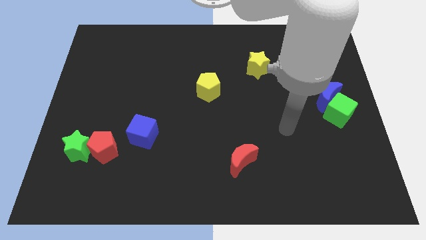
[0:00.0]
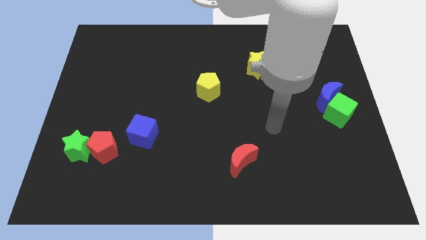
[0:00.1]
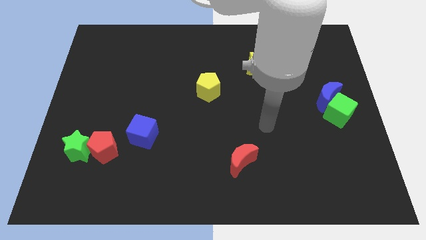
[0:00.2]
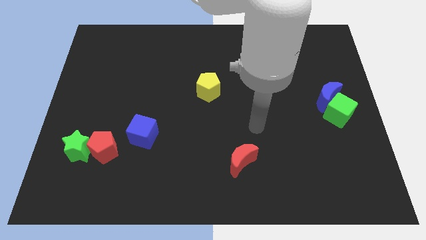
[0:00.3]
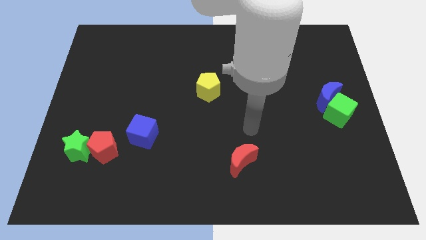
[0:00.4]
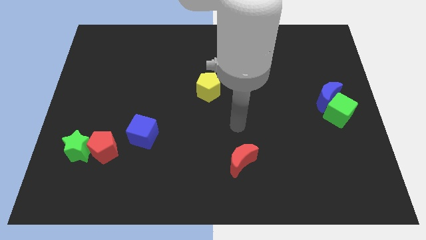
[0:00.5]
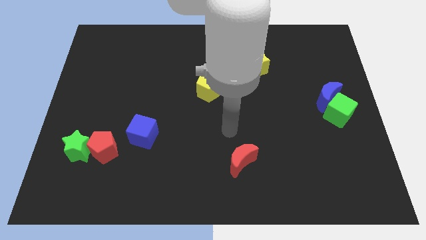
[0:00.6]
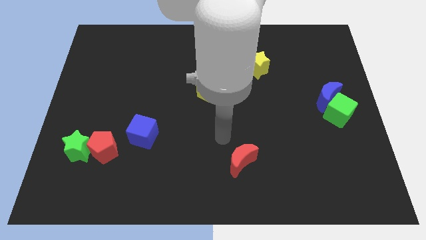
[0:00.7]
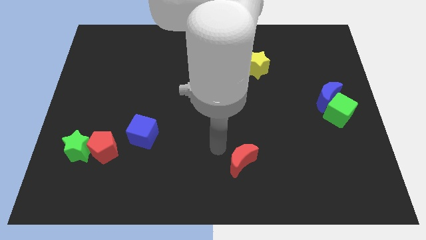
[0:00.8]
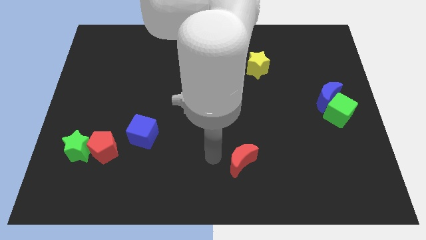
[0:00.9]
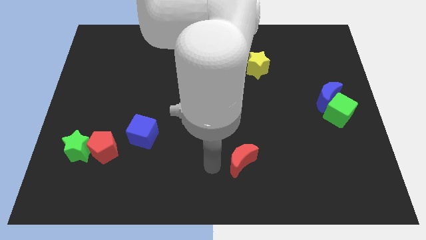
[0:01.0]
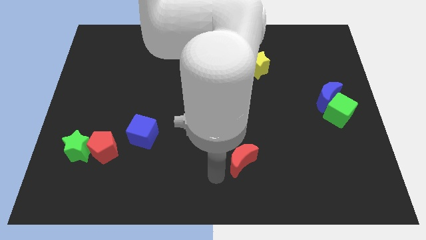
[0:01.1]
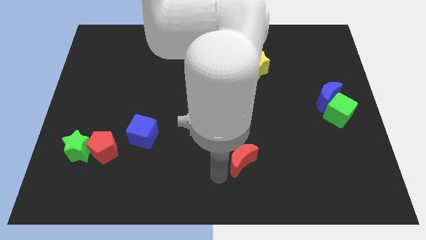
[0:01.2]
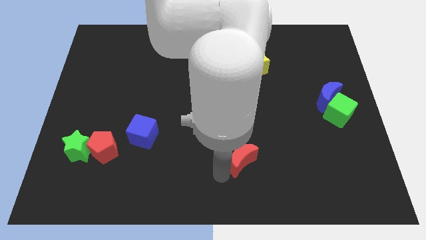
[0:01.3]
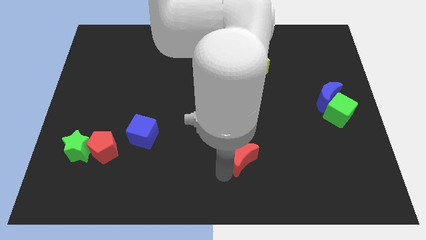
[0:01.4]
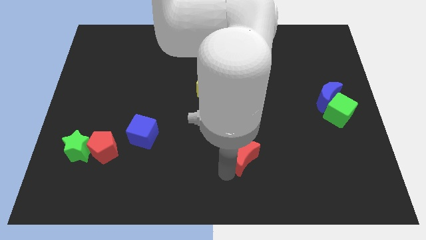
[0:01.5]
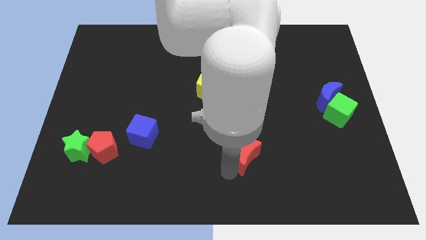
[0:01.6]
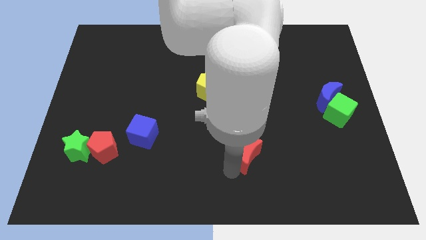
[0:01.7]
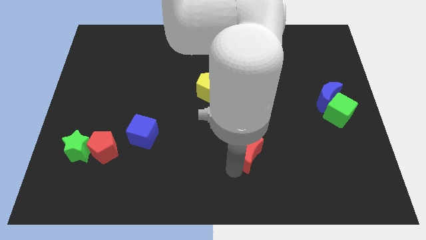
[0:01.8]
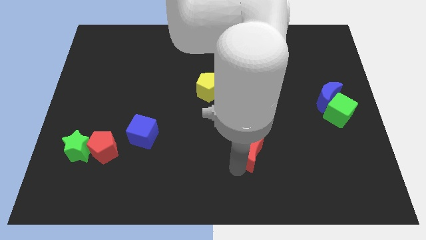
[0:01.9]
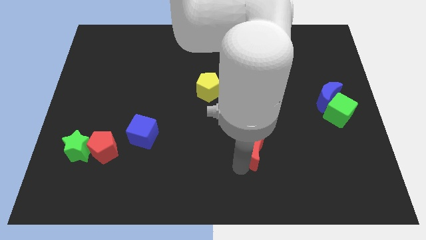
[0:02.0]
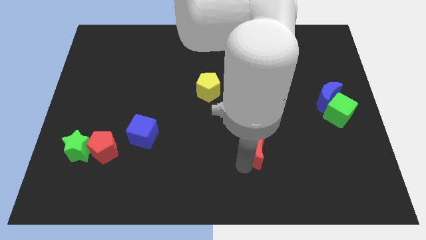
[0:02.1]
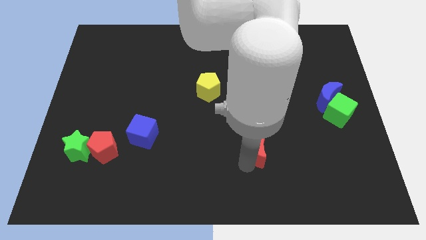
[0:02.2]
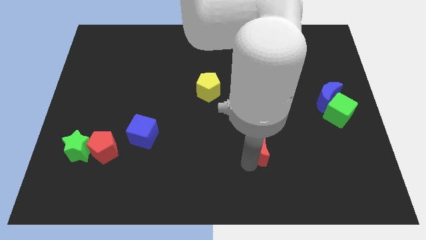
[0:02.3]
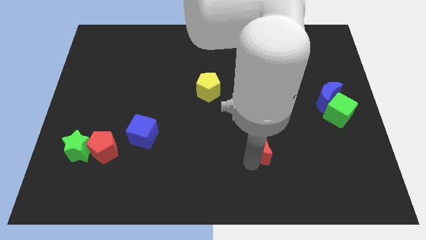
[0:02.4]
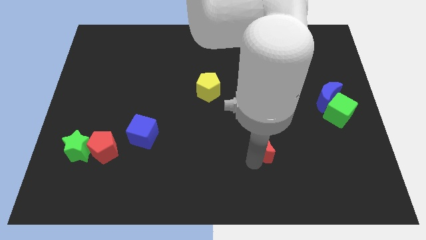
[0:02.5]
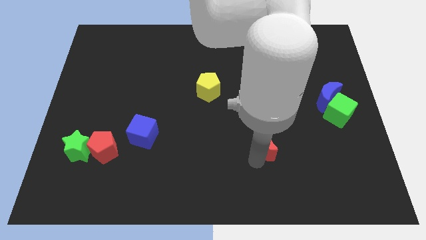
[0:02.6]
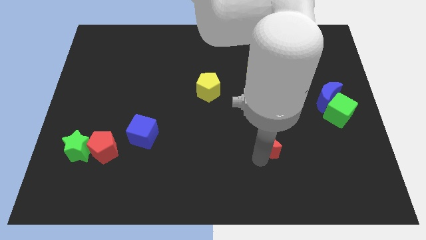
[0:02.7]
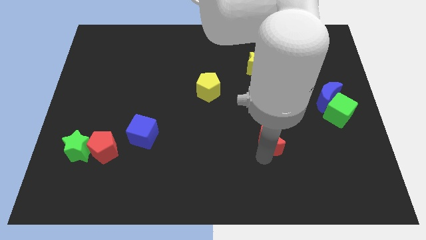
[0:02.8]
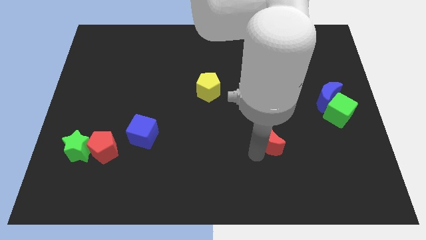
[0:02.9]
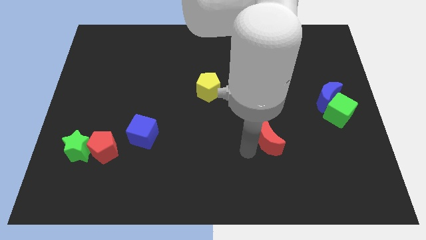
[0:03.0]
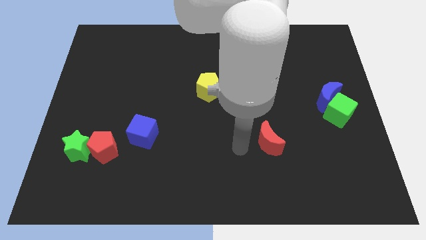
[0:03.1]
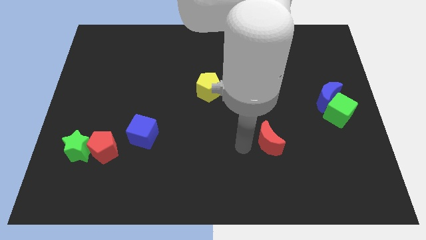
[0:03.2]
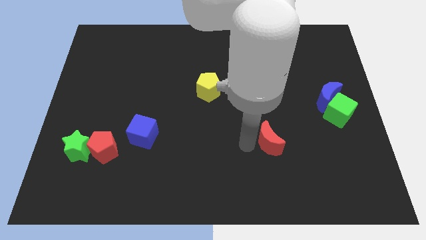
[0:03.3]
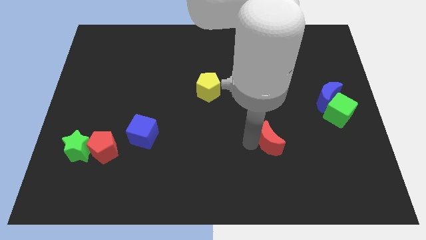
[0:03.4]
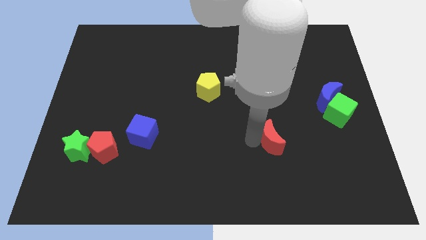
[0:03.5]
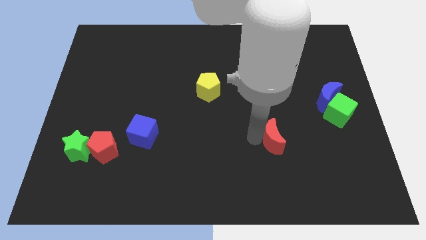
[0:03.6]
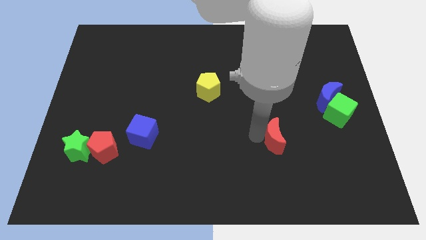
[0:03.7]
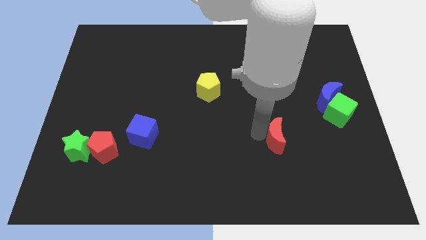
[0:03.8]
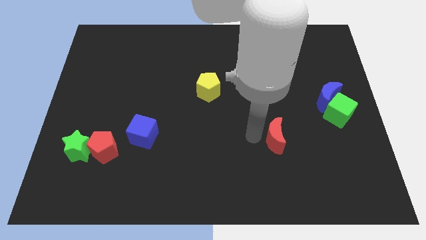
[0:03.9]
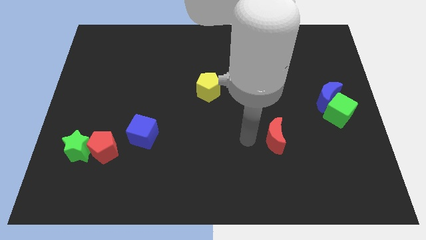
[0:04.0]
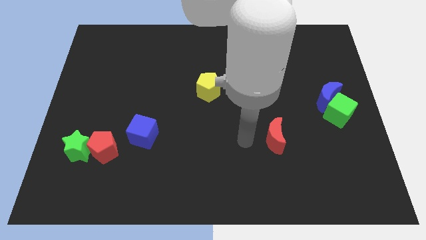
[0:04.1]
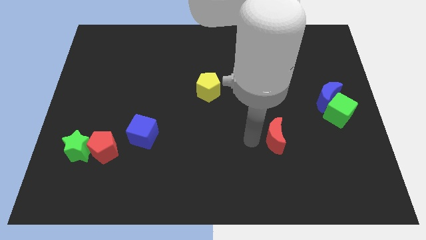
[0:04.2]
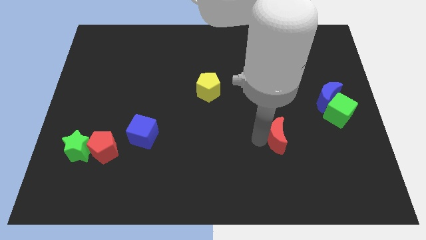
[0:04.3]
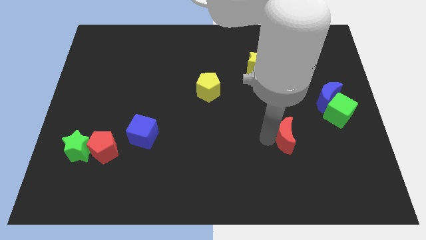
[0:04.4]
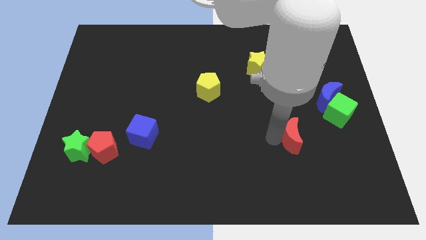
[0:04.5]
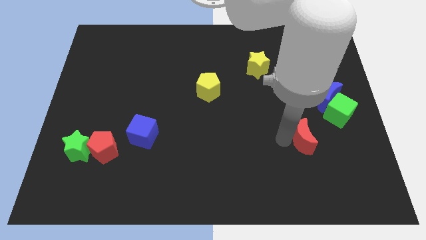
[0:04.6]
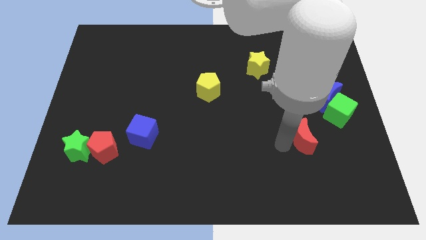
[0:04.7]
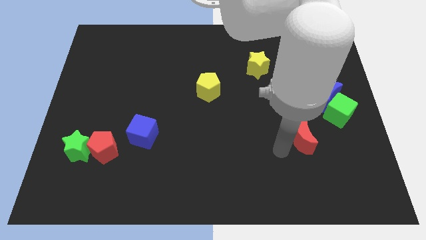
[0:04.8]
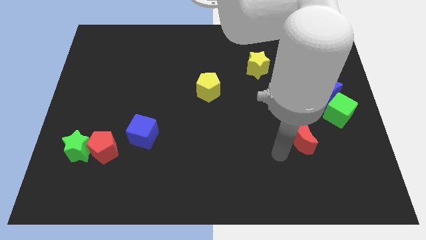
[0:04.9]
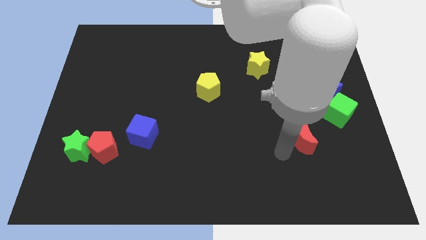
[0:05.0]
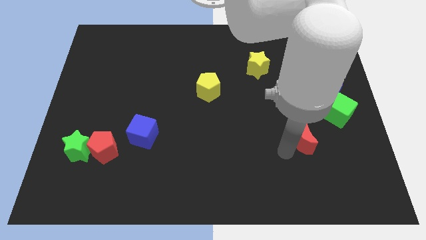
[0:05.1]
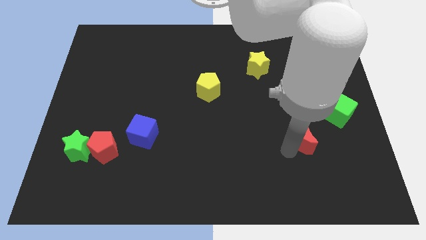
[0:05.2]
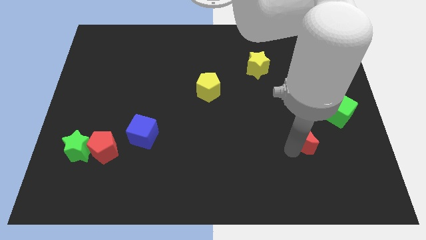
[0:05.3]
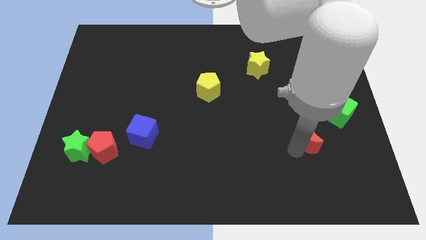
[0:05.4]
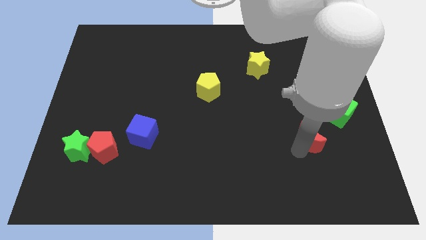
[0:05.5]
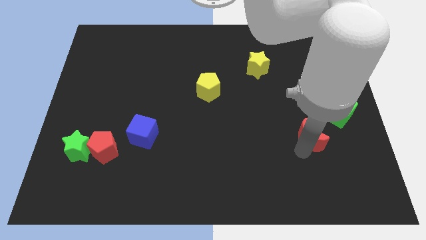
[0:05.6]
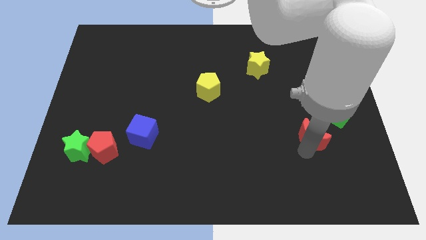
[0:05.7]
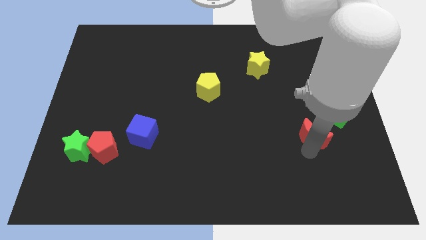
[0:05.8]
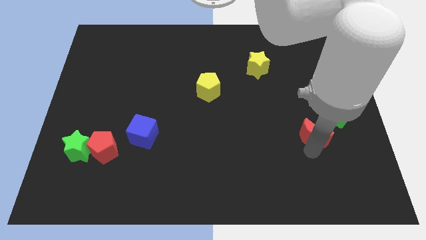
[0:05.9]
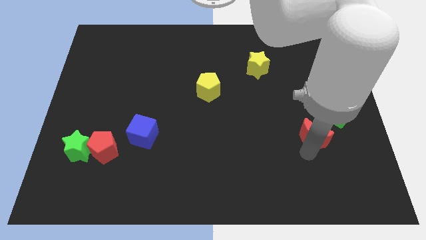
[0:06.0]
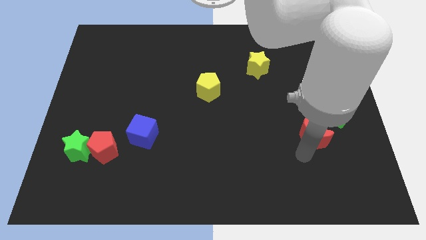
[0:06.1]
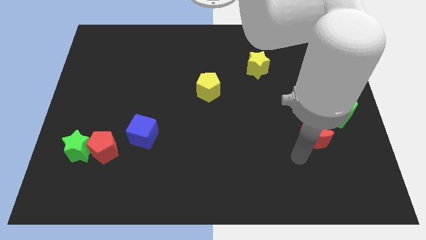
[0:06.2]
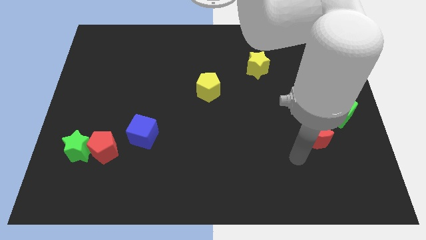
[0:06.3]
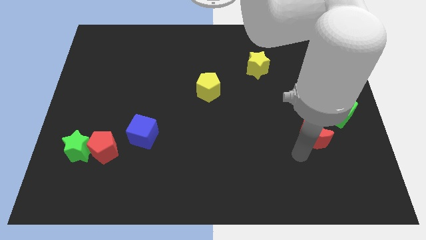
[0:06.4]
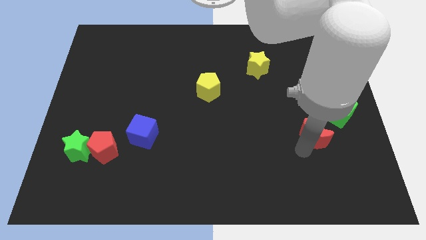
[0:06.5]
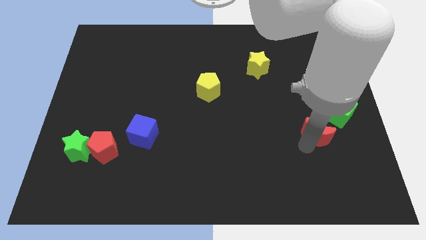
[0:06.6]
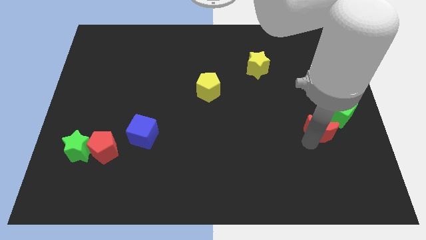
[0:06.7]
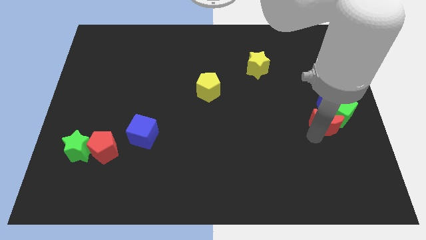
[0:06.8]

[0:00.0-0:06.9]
slide the red moon towards the green cube
